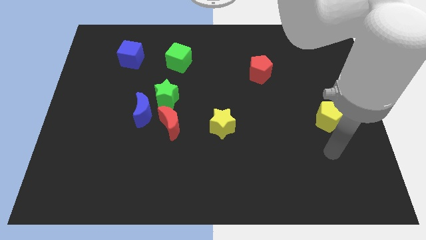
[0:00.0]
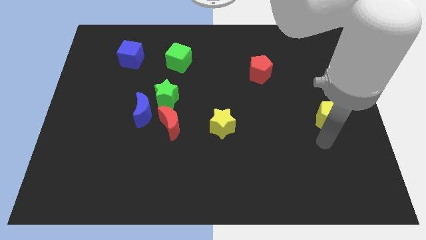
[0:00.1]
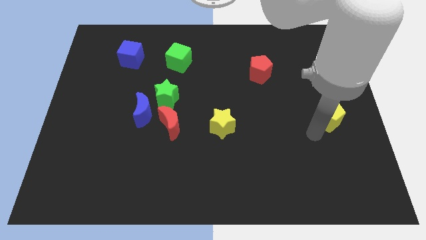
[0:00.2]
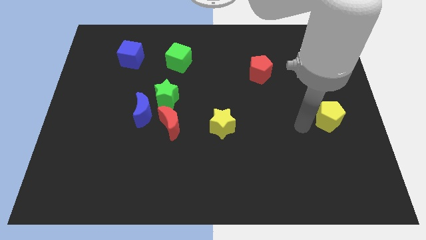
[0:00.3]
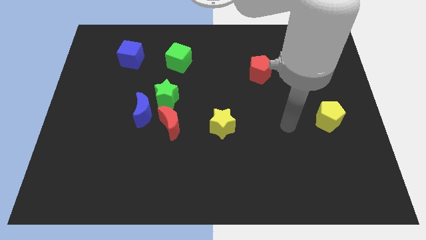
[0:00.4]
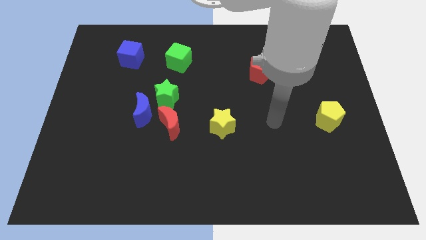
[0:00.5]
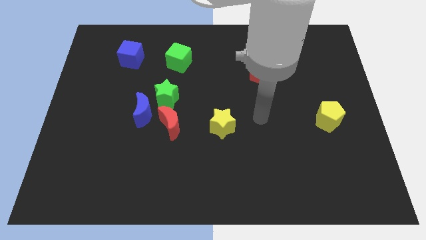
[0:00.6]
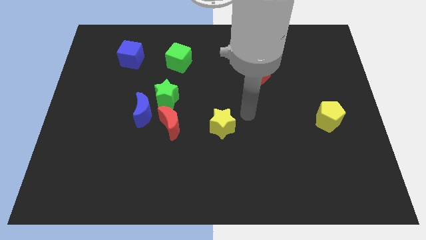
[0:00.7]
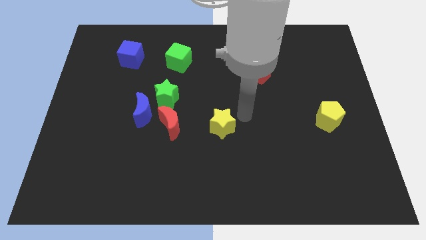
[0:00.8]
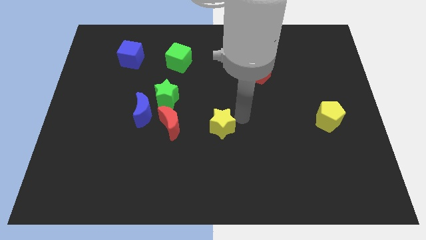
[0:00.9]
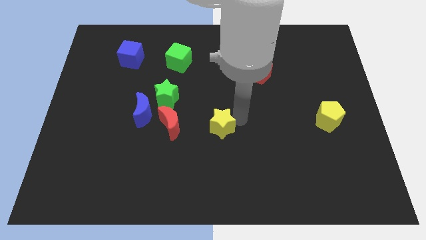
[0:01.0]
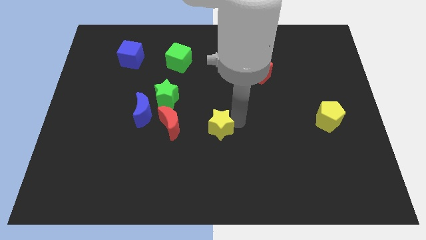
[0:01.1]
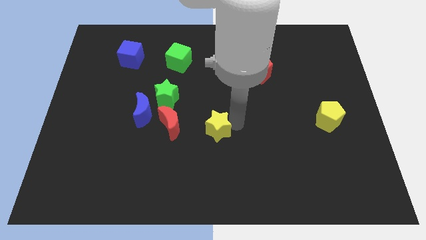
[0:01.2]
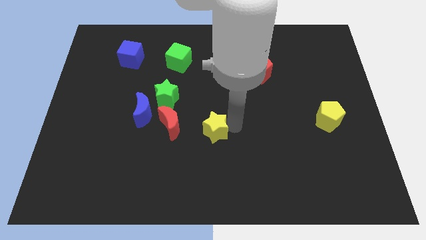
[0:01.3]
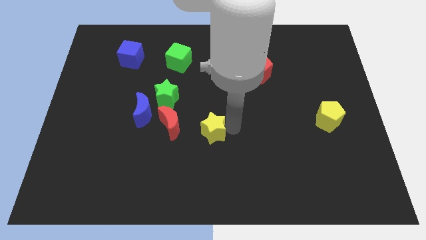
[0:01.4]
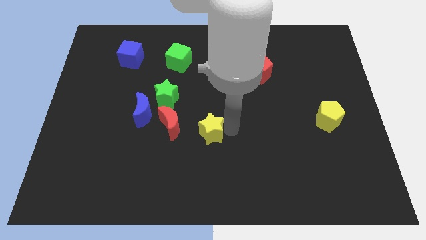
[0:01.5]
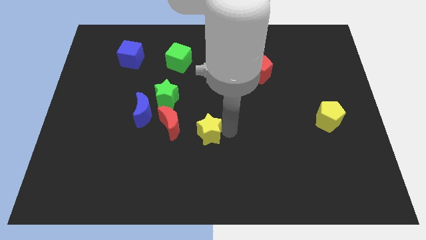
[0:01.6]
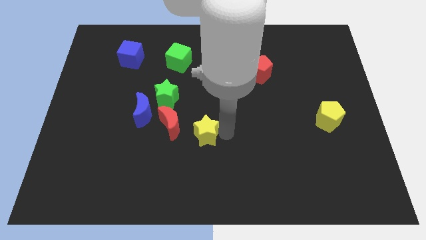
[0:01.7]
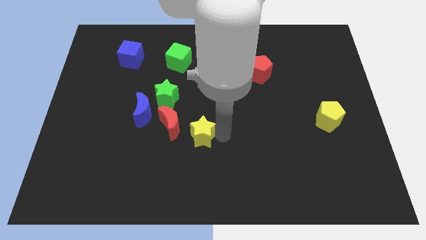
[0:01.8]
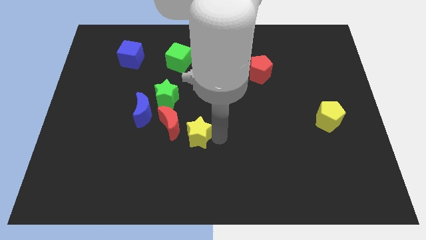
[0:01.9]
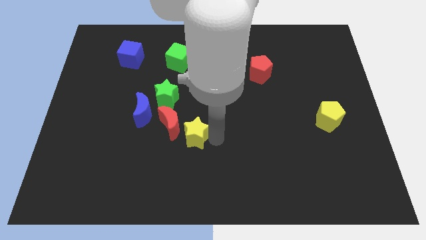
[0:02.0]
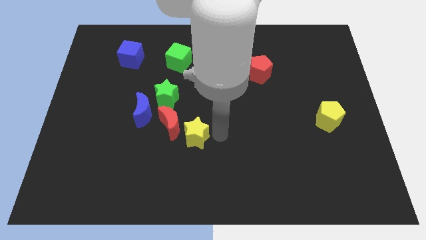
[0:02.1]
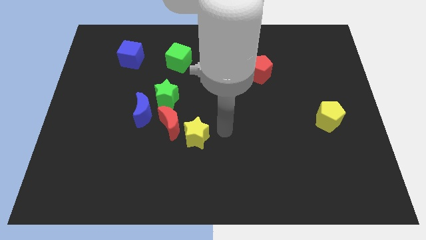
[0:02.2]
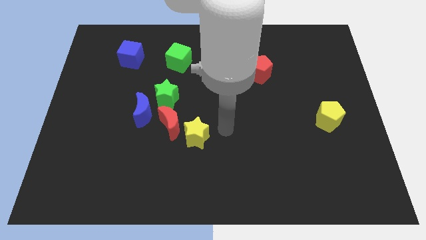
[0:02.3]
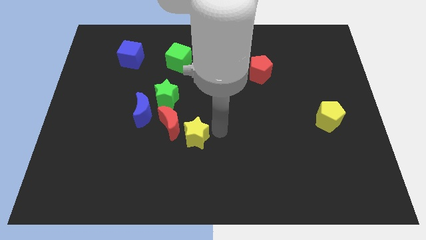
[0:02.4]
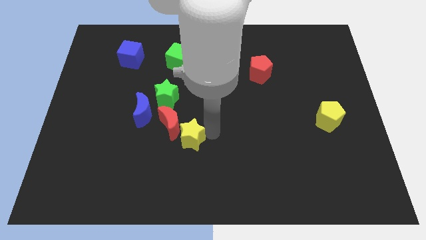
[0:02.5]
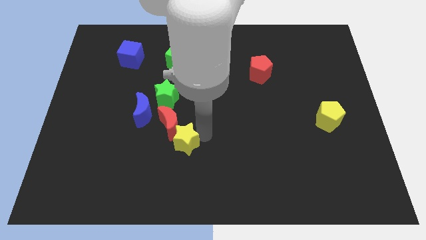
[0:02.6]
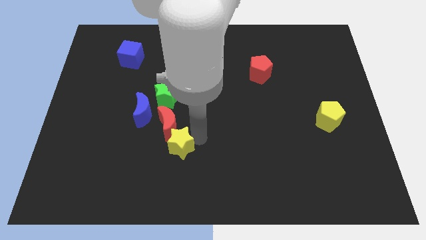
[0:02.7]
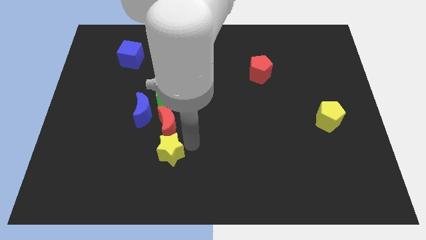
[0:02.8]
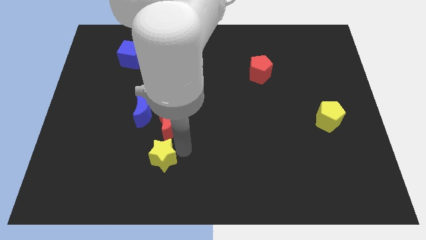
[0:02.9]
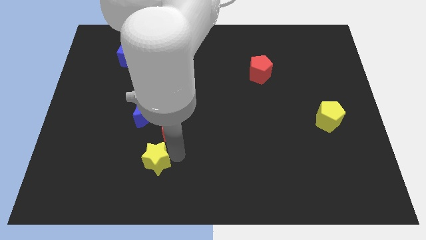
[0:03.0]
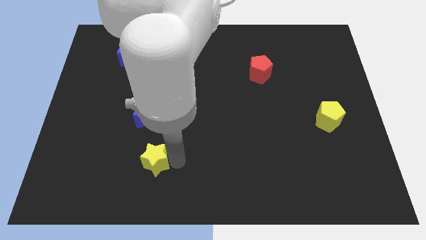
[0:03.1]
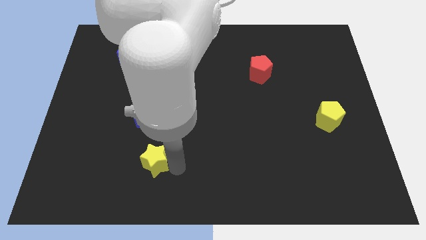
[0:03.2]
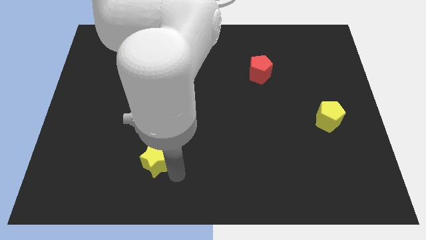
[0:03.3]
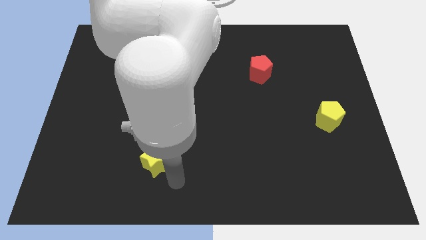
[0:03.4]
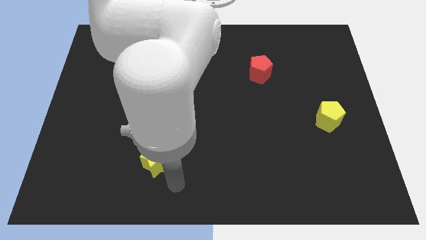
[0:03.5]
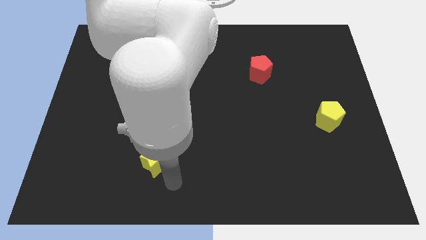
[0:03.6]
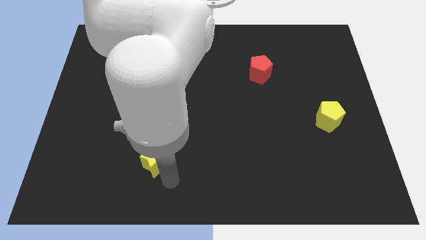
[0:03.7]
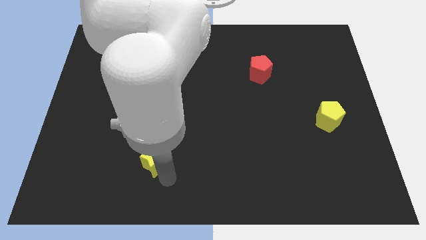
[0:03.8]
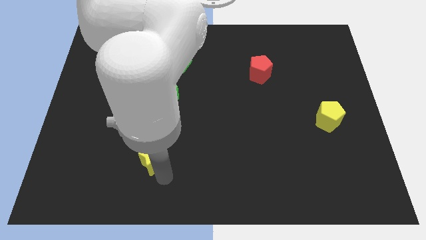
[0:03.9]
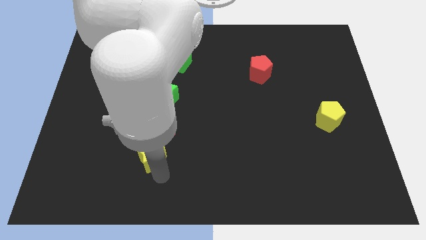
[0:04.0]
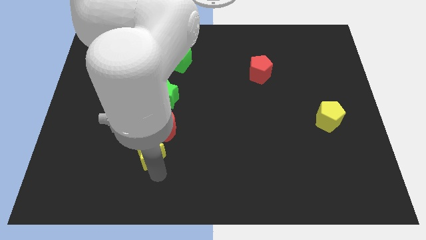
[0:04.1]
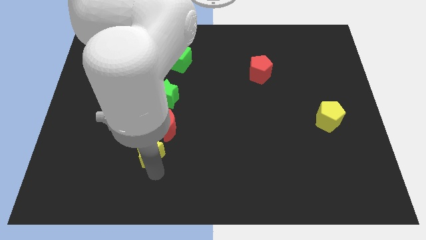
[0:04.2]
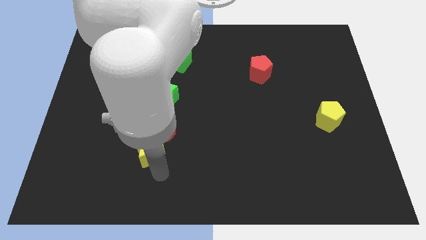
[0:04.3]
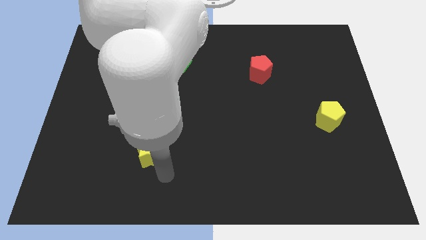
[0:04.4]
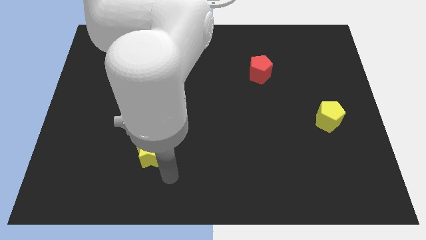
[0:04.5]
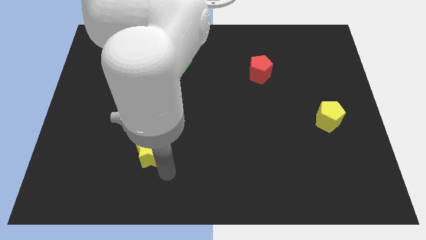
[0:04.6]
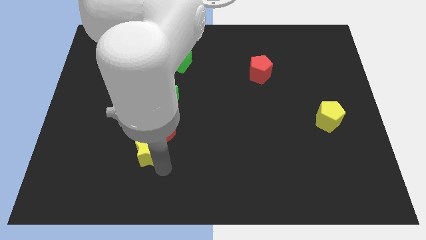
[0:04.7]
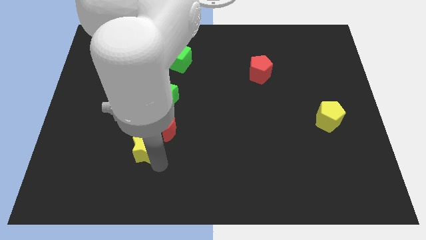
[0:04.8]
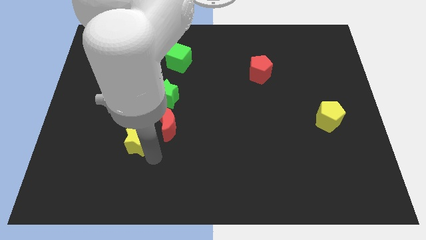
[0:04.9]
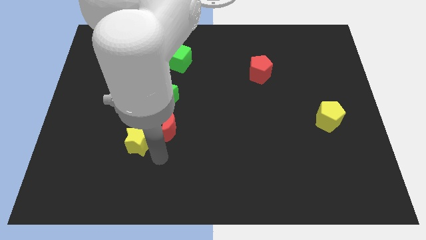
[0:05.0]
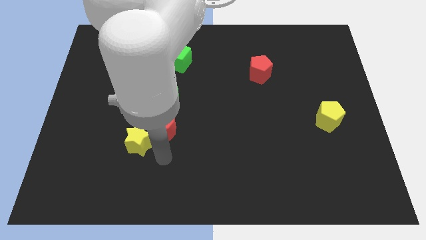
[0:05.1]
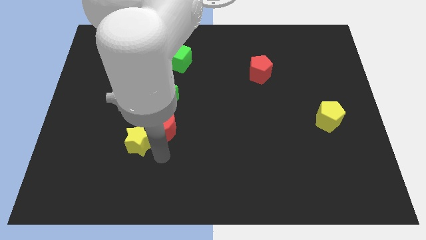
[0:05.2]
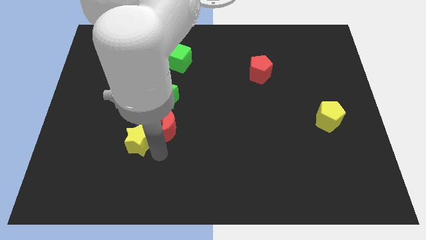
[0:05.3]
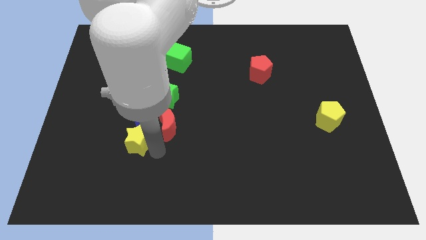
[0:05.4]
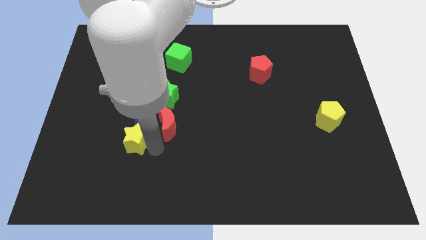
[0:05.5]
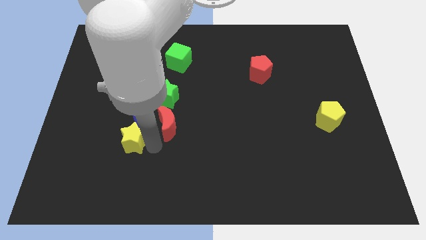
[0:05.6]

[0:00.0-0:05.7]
push the yellow star to the bottom left of the blue moon

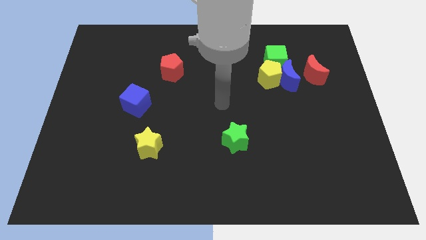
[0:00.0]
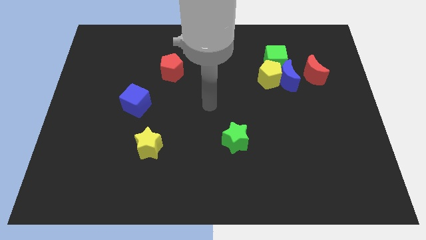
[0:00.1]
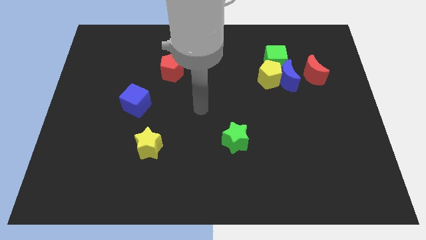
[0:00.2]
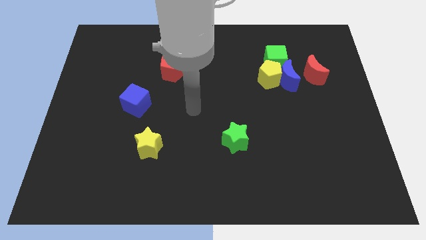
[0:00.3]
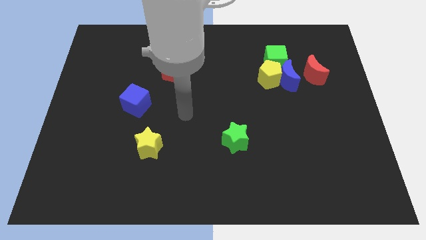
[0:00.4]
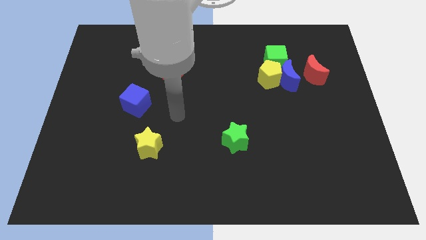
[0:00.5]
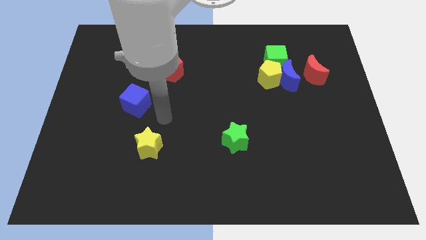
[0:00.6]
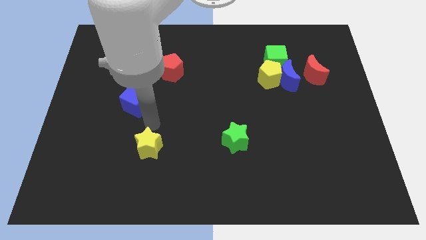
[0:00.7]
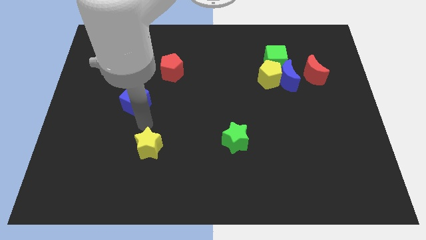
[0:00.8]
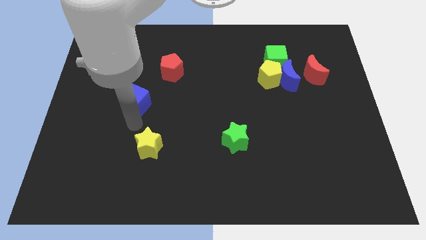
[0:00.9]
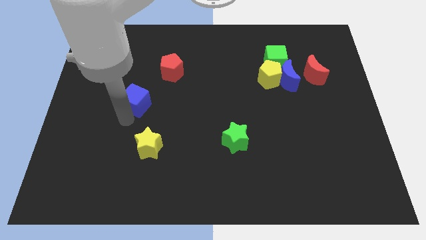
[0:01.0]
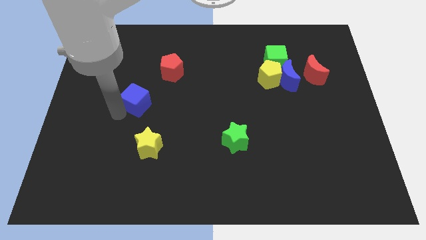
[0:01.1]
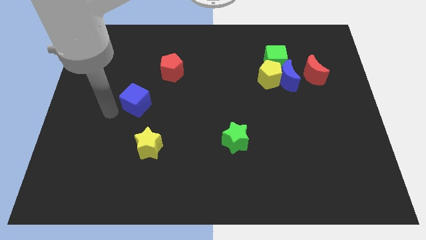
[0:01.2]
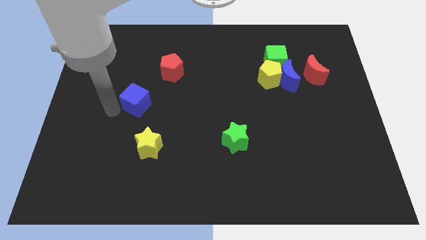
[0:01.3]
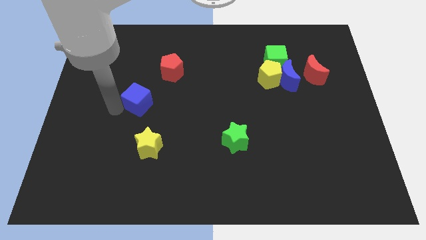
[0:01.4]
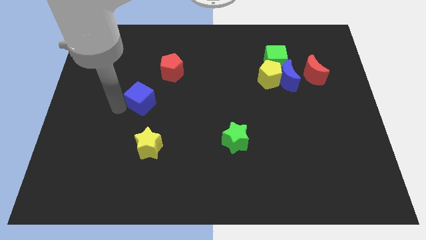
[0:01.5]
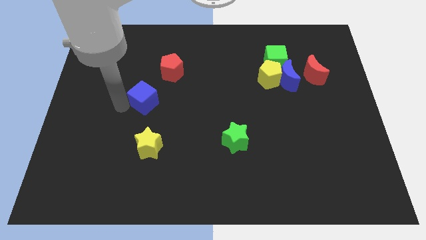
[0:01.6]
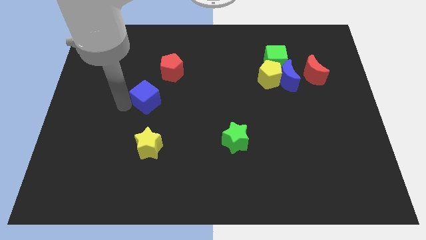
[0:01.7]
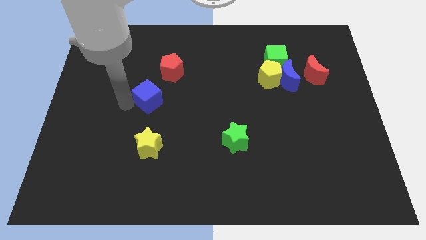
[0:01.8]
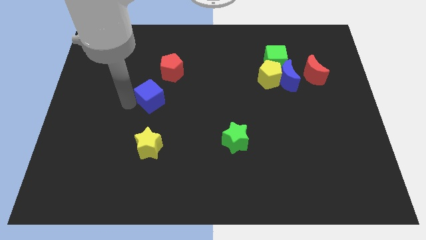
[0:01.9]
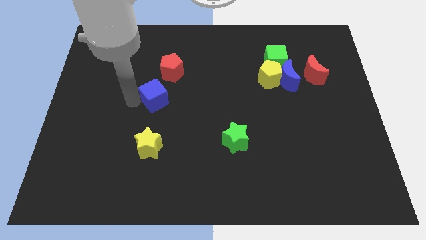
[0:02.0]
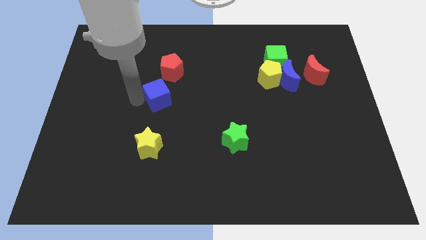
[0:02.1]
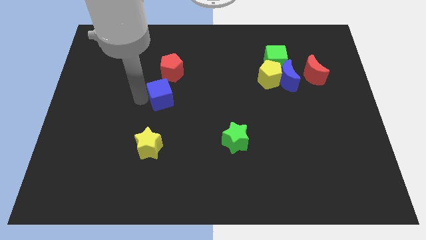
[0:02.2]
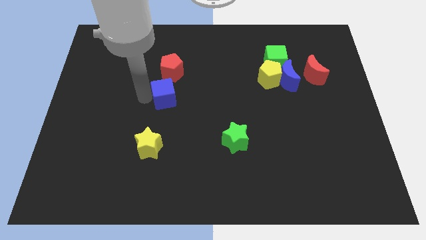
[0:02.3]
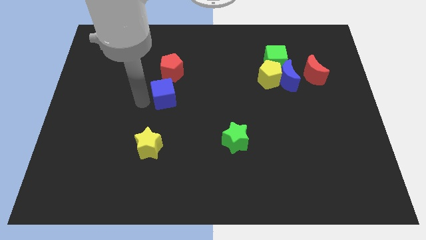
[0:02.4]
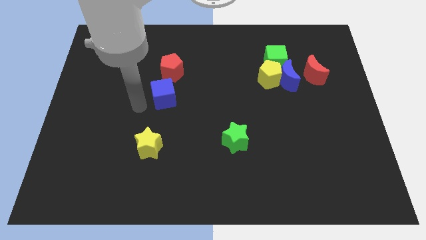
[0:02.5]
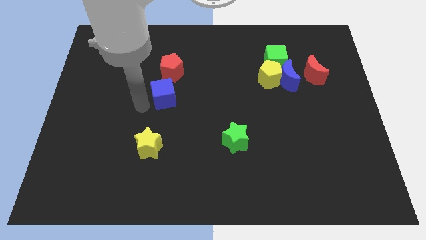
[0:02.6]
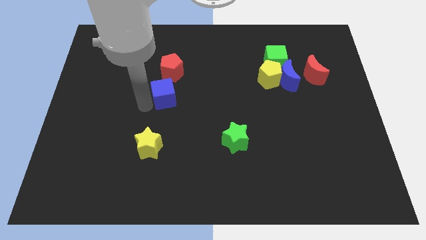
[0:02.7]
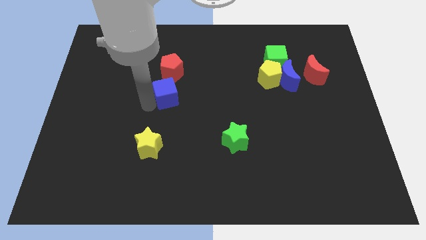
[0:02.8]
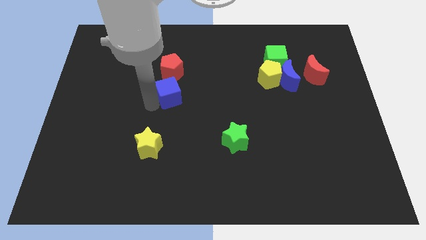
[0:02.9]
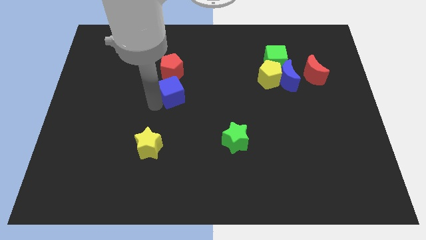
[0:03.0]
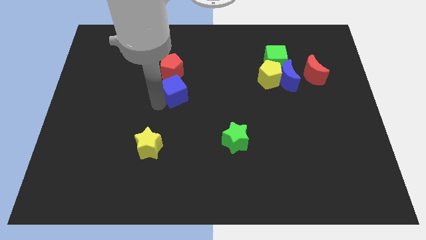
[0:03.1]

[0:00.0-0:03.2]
put the blue cube to the bottom right of the red pentagon
